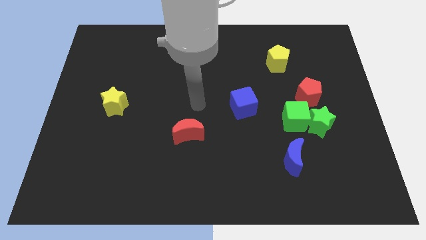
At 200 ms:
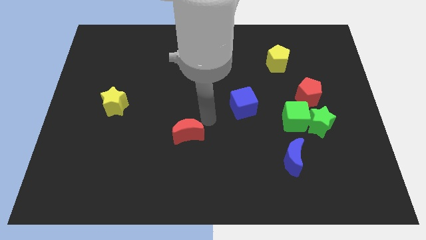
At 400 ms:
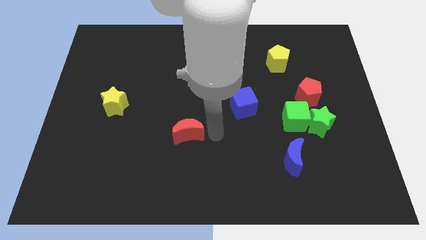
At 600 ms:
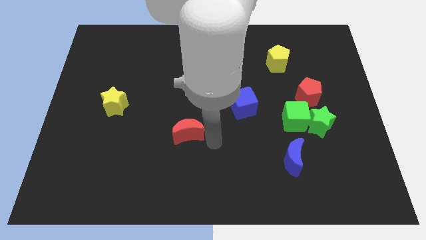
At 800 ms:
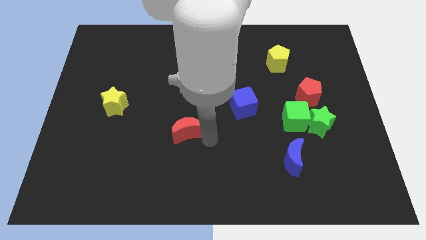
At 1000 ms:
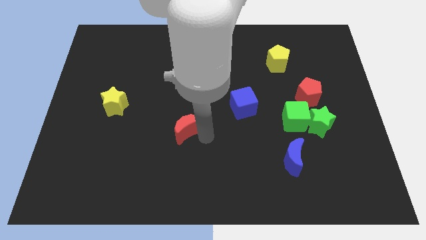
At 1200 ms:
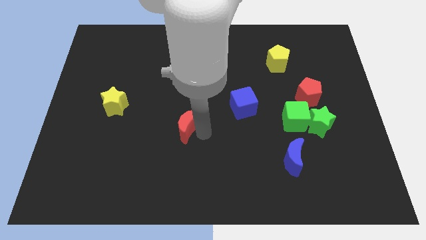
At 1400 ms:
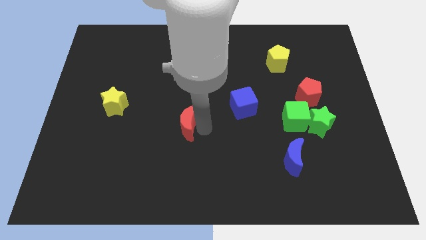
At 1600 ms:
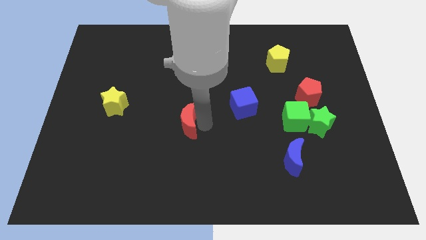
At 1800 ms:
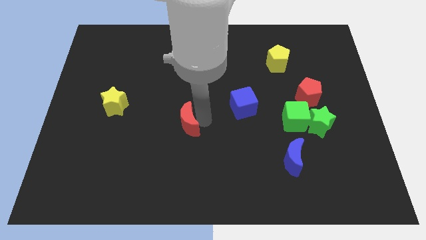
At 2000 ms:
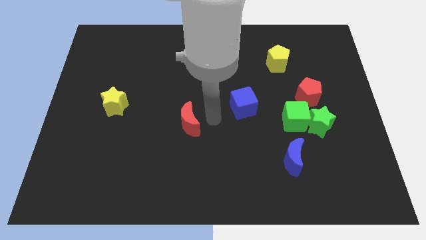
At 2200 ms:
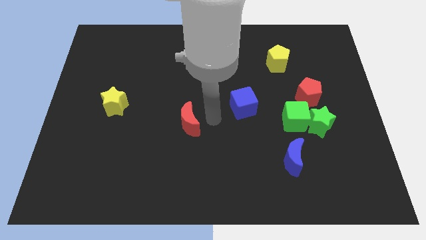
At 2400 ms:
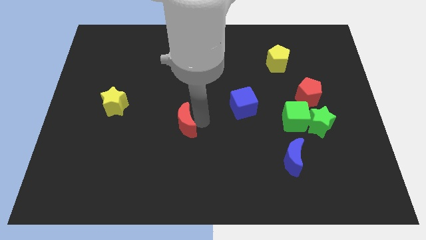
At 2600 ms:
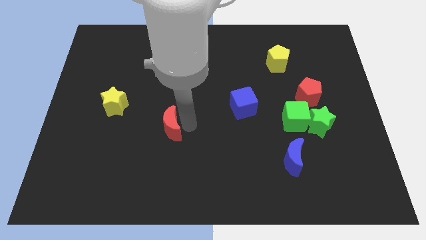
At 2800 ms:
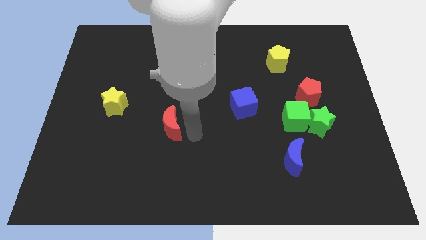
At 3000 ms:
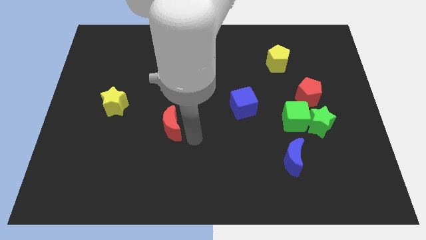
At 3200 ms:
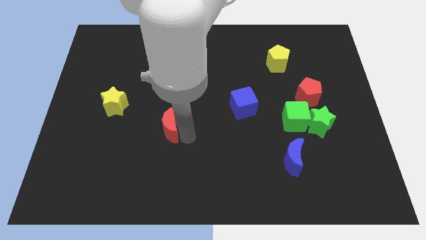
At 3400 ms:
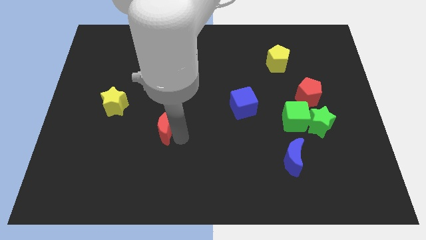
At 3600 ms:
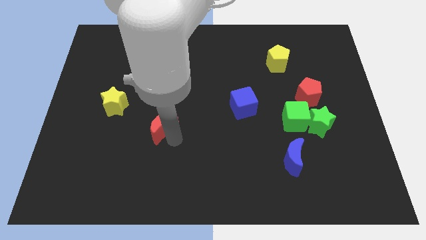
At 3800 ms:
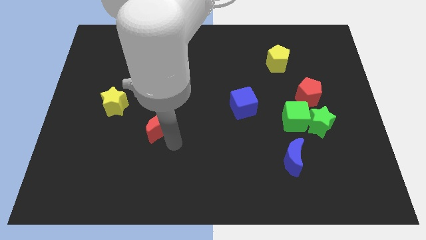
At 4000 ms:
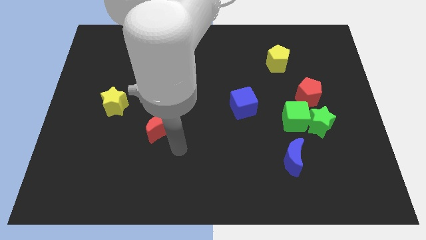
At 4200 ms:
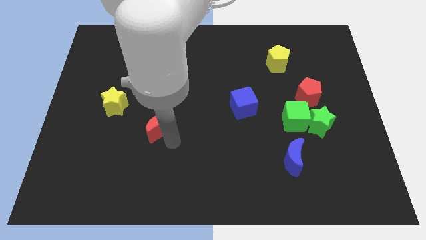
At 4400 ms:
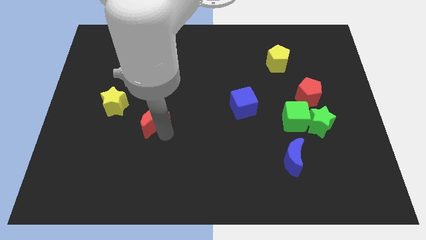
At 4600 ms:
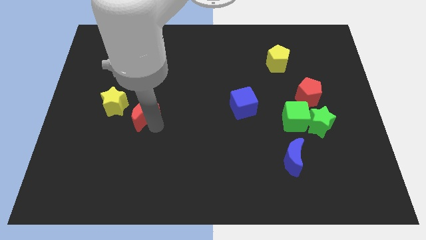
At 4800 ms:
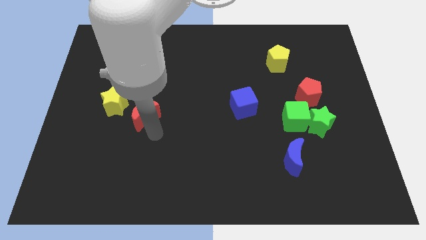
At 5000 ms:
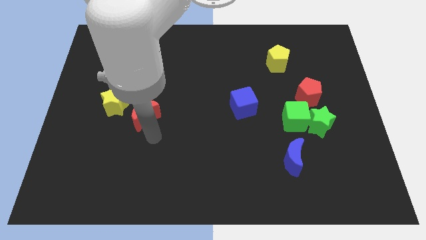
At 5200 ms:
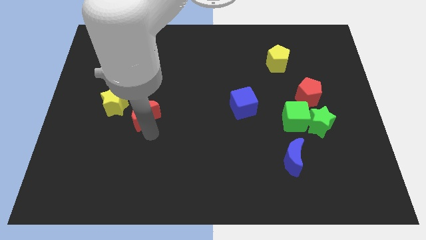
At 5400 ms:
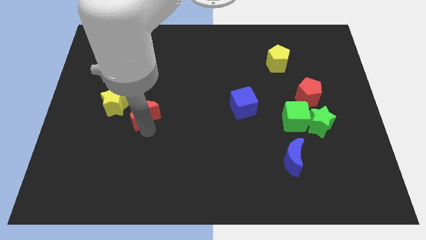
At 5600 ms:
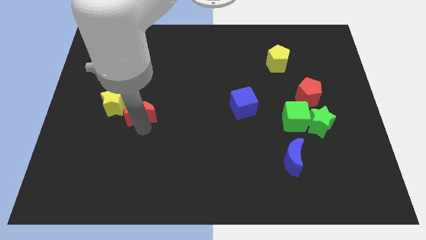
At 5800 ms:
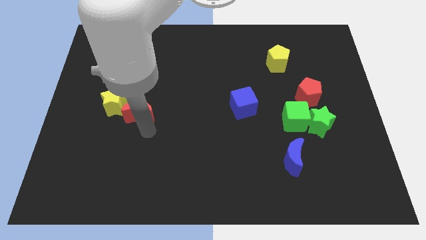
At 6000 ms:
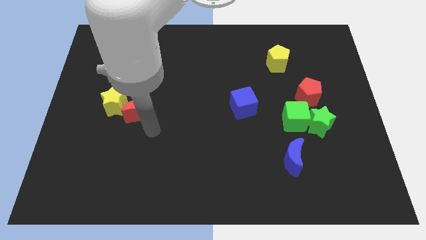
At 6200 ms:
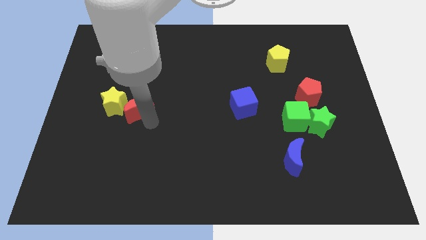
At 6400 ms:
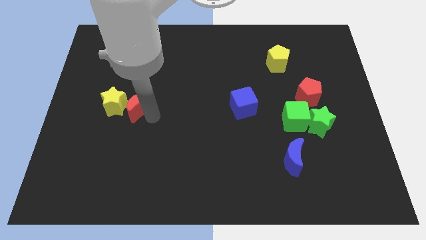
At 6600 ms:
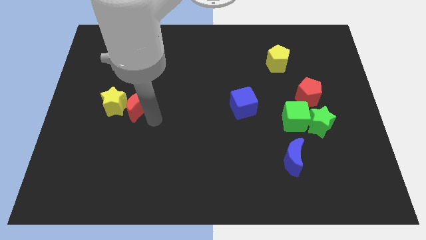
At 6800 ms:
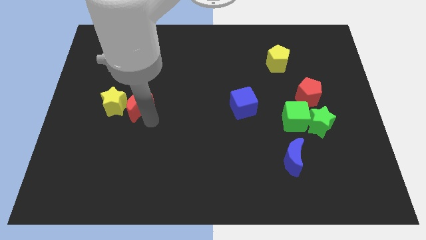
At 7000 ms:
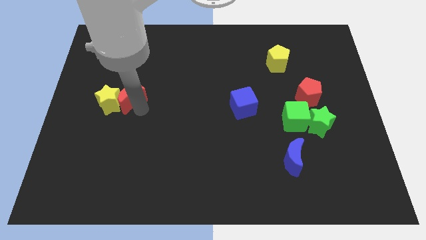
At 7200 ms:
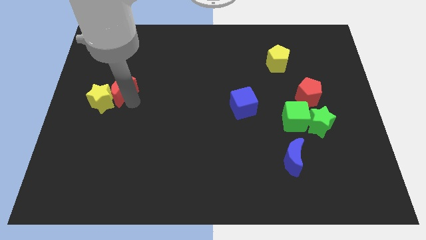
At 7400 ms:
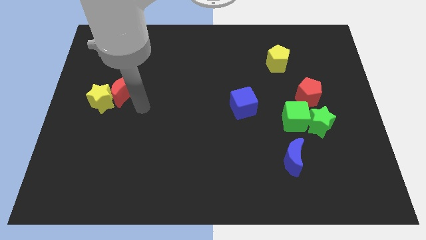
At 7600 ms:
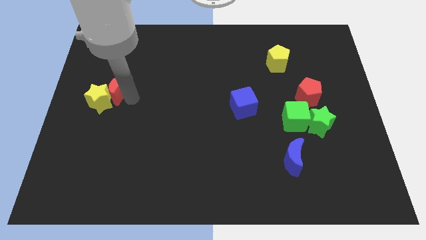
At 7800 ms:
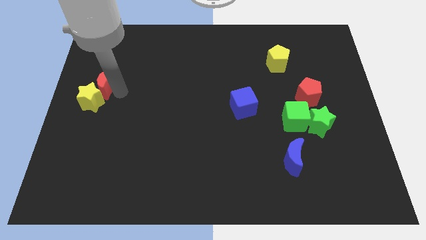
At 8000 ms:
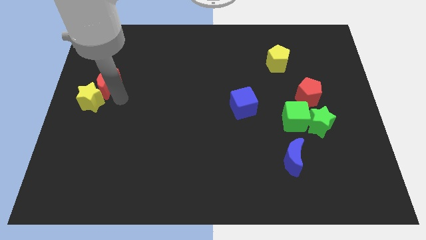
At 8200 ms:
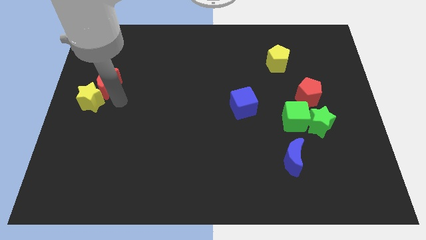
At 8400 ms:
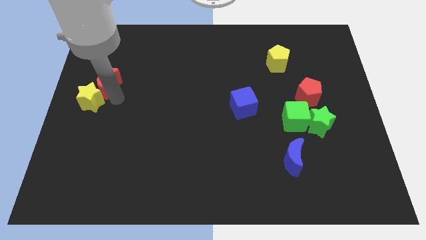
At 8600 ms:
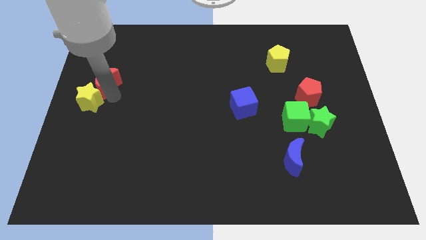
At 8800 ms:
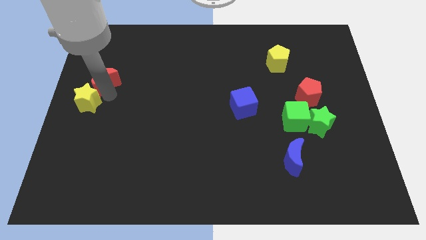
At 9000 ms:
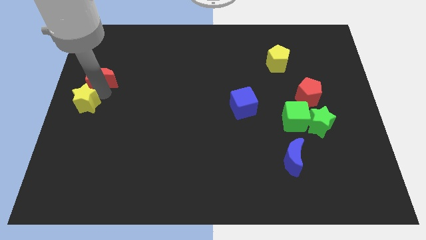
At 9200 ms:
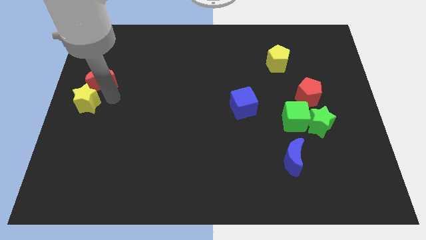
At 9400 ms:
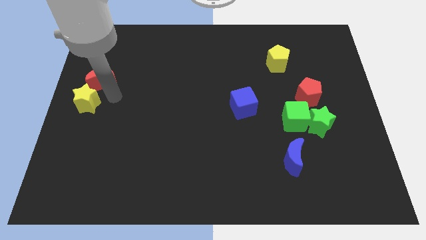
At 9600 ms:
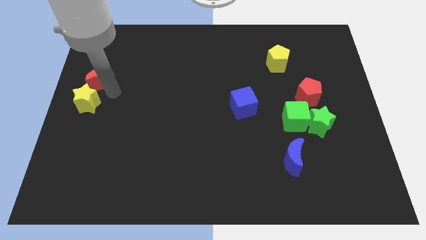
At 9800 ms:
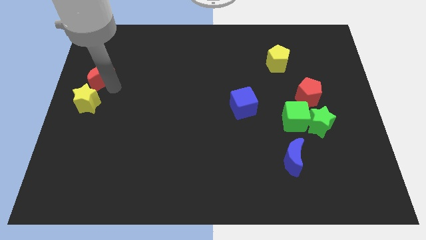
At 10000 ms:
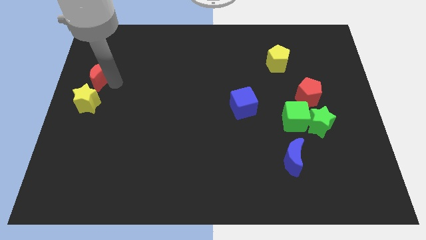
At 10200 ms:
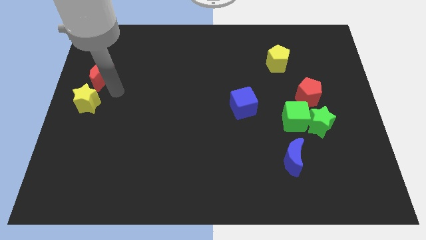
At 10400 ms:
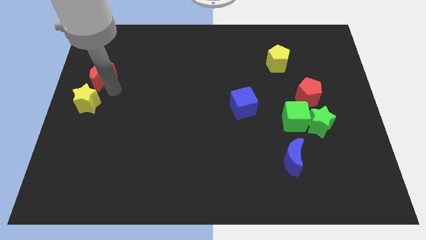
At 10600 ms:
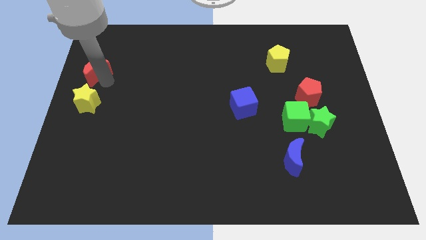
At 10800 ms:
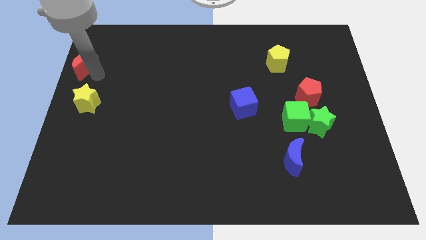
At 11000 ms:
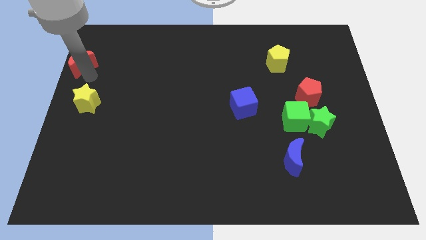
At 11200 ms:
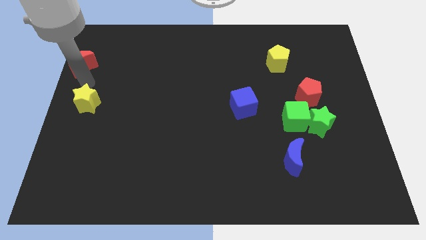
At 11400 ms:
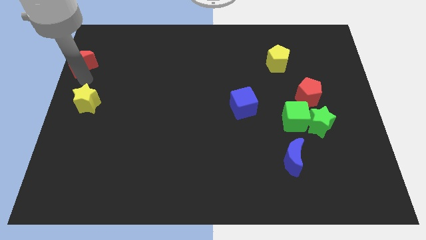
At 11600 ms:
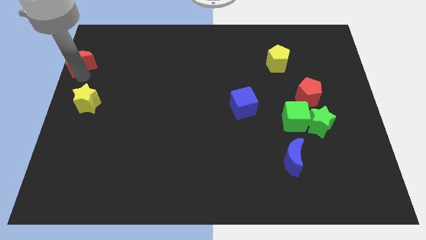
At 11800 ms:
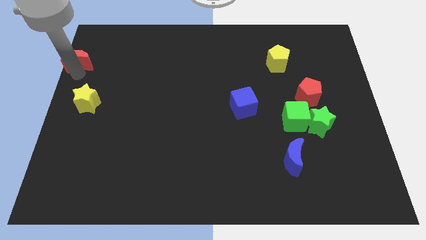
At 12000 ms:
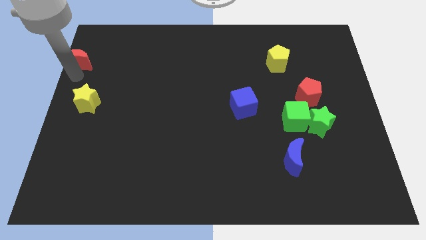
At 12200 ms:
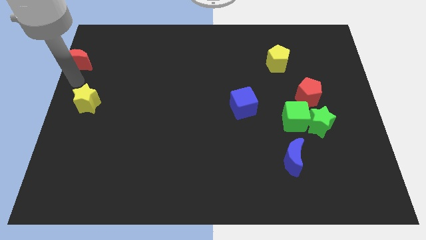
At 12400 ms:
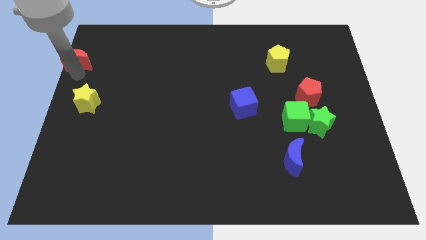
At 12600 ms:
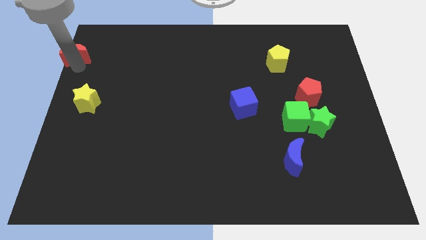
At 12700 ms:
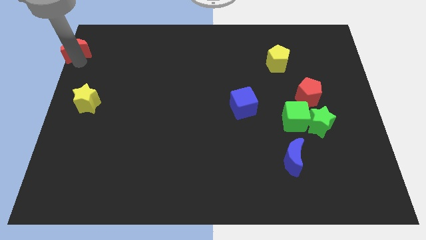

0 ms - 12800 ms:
move the red moon to the top left corner
